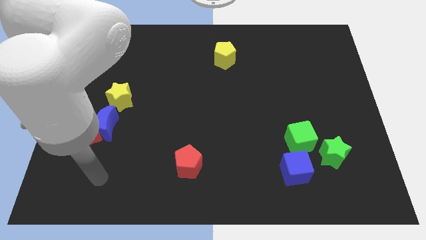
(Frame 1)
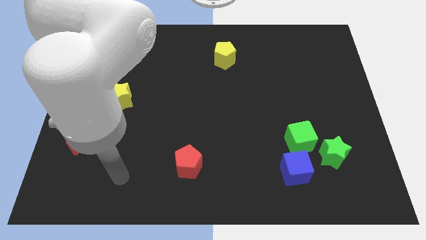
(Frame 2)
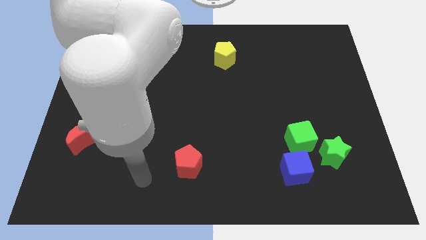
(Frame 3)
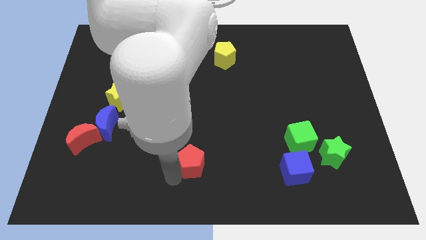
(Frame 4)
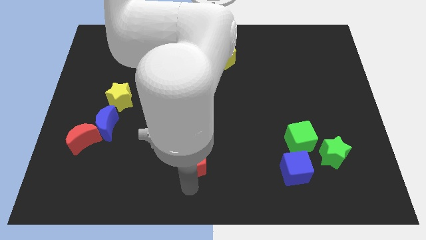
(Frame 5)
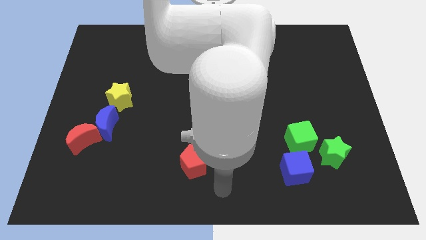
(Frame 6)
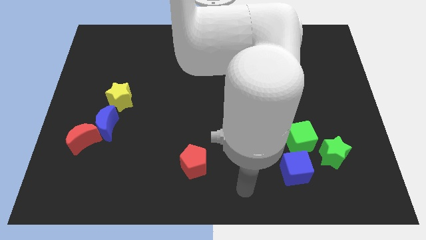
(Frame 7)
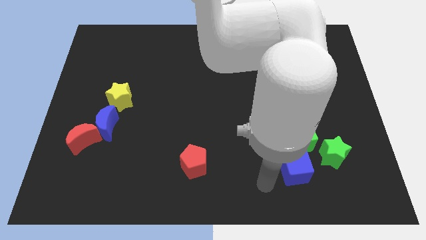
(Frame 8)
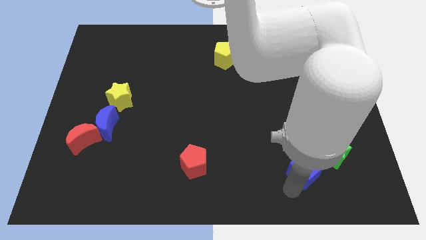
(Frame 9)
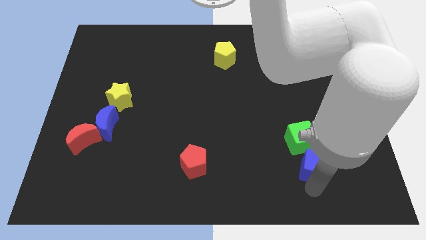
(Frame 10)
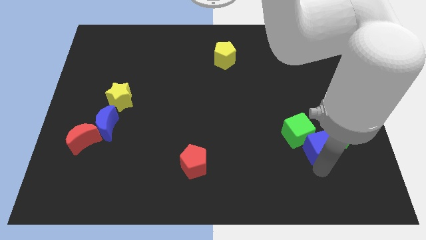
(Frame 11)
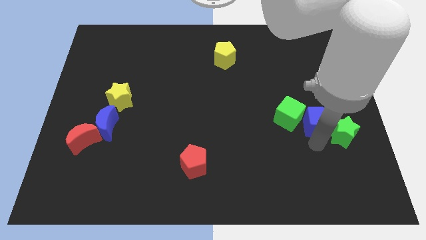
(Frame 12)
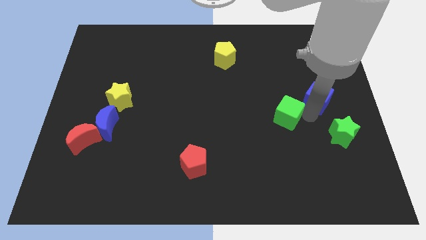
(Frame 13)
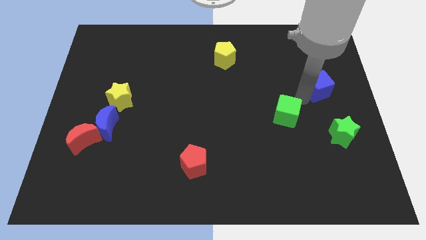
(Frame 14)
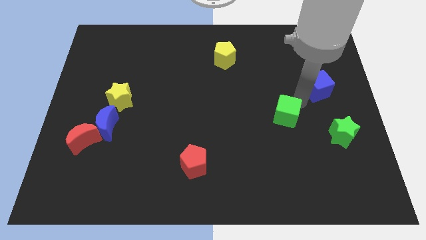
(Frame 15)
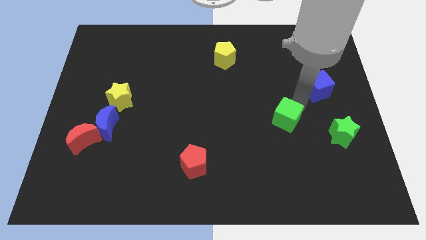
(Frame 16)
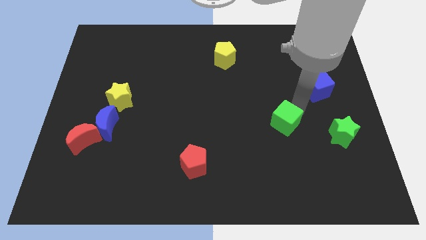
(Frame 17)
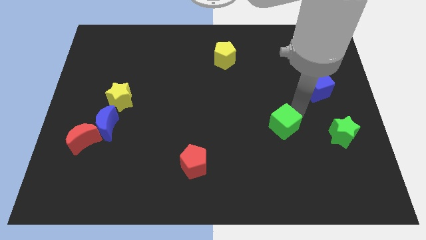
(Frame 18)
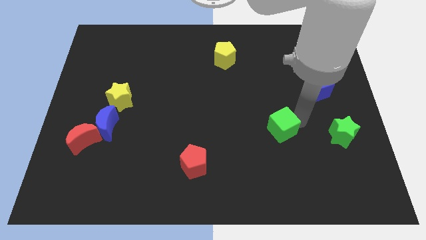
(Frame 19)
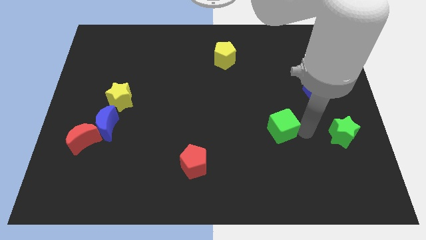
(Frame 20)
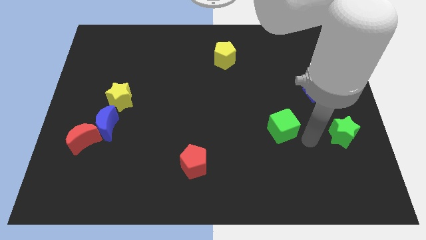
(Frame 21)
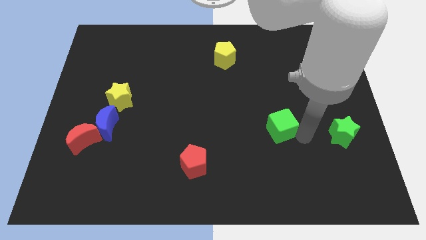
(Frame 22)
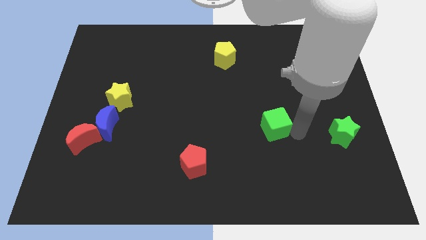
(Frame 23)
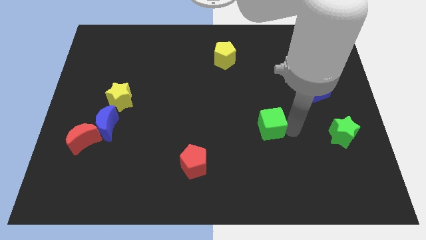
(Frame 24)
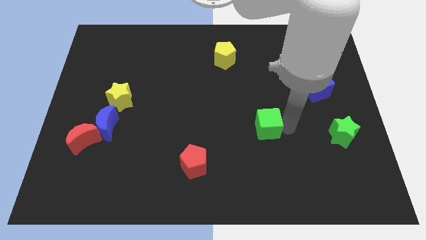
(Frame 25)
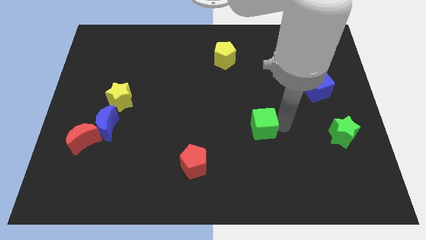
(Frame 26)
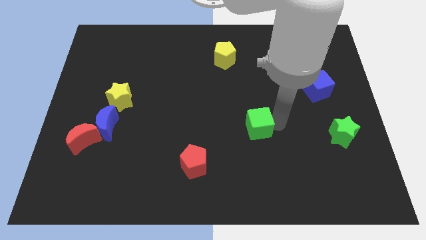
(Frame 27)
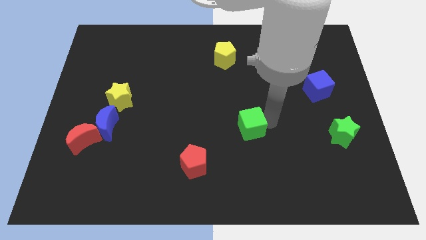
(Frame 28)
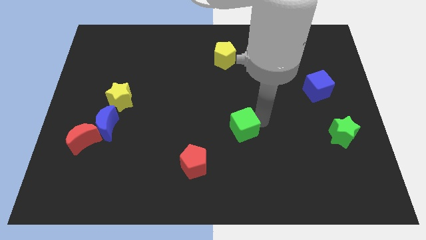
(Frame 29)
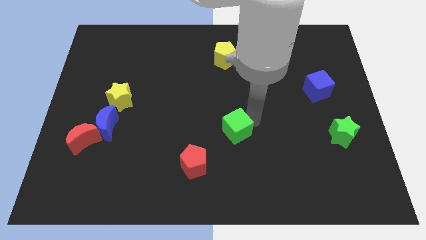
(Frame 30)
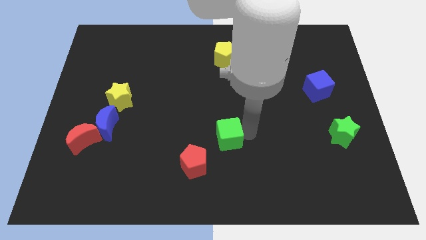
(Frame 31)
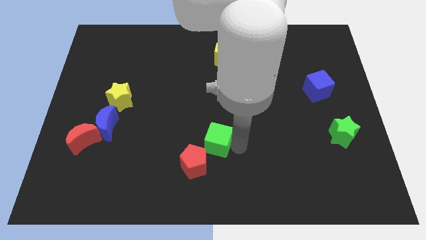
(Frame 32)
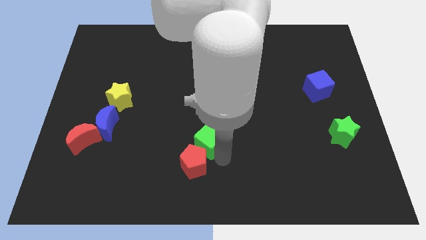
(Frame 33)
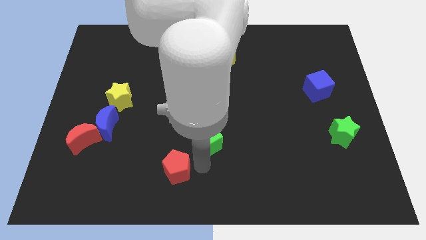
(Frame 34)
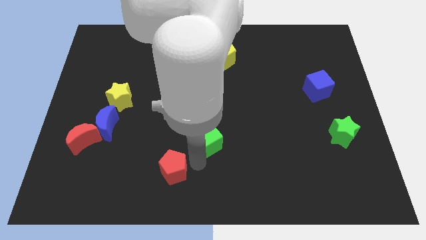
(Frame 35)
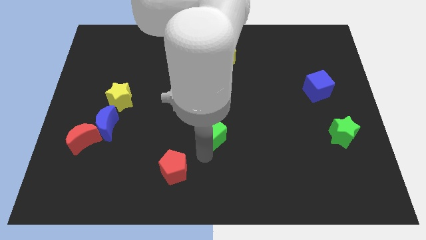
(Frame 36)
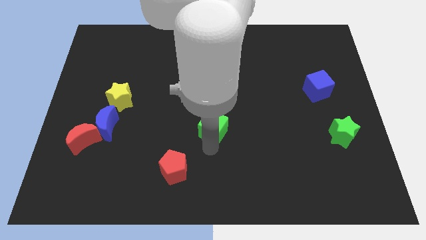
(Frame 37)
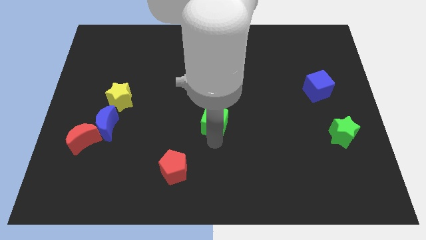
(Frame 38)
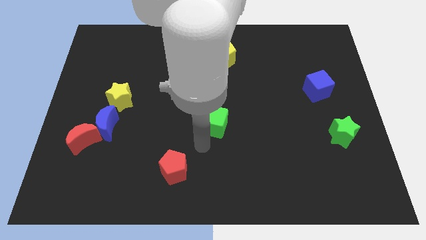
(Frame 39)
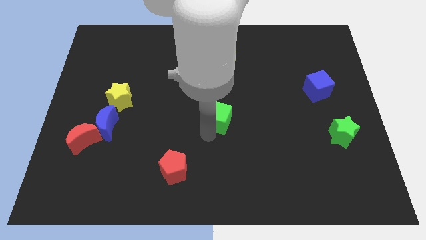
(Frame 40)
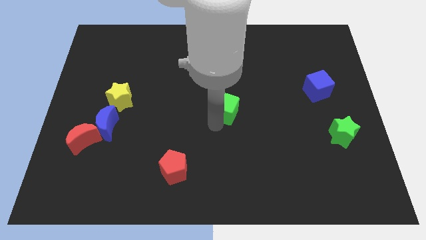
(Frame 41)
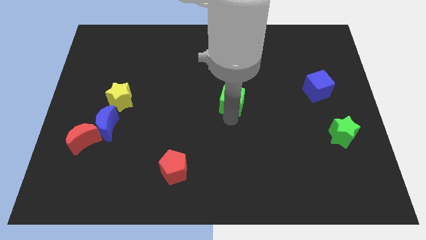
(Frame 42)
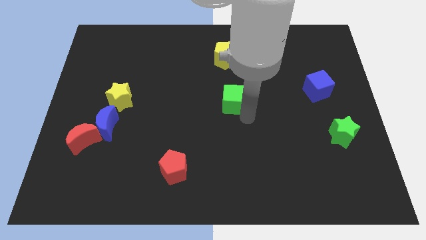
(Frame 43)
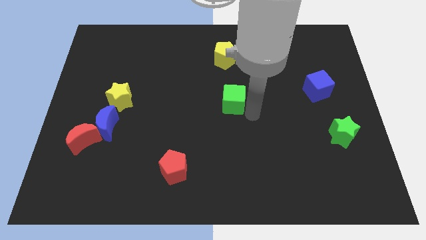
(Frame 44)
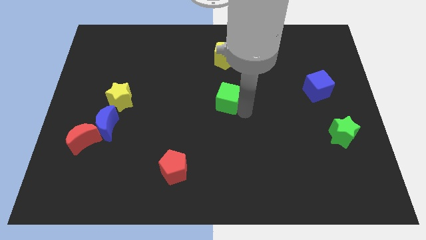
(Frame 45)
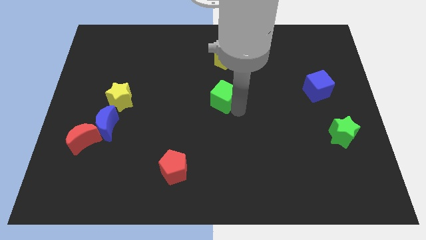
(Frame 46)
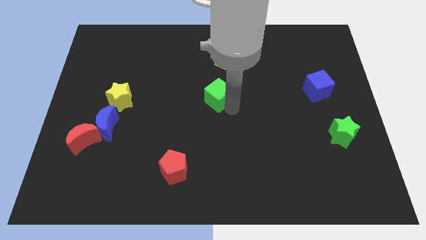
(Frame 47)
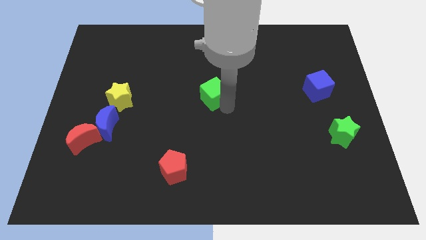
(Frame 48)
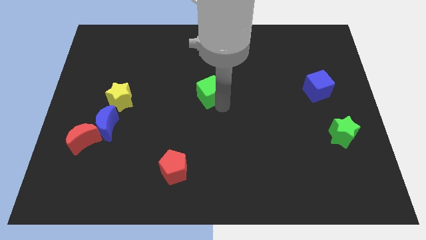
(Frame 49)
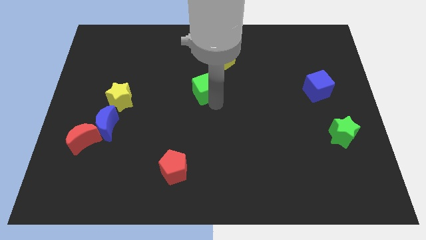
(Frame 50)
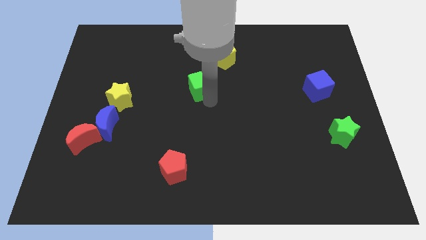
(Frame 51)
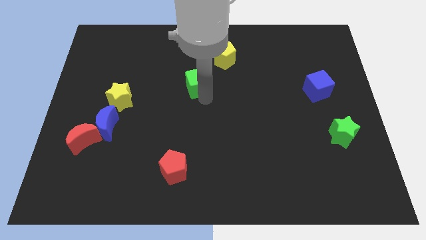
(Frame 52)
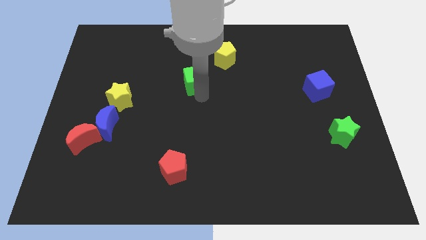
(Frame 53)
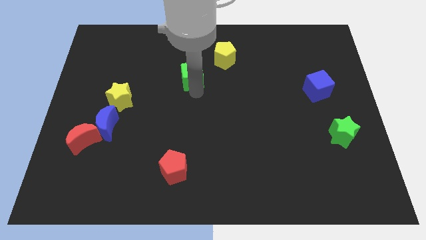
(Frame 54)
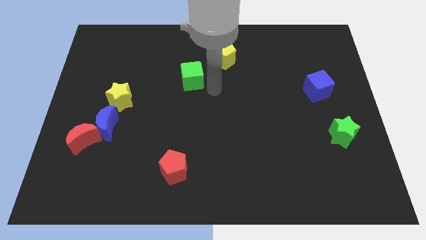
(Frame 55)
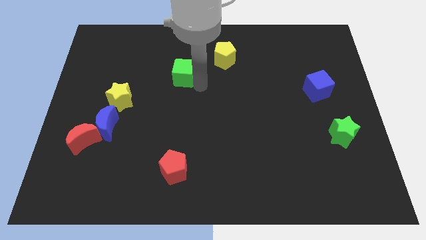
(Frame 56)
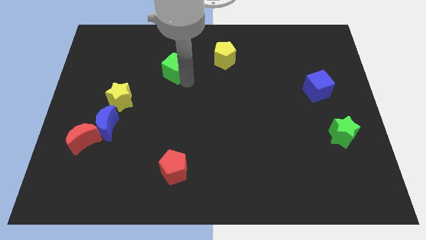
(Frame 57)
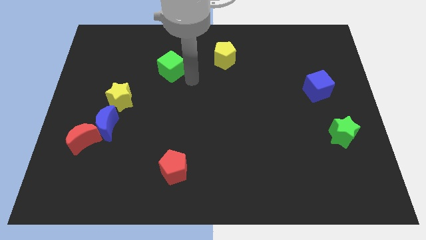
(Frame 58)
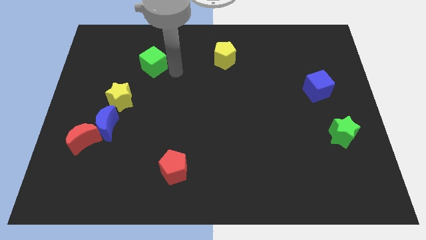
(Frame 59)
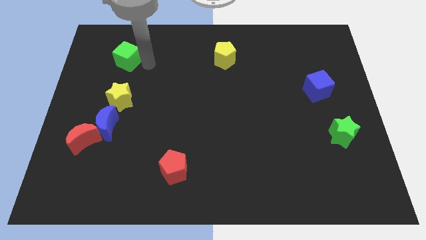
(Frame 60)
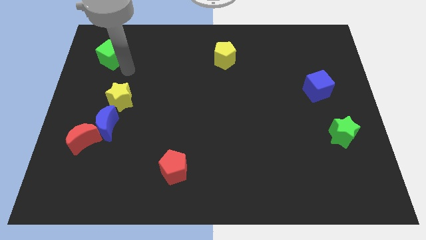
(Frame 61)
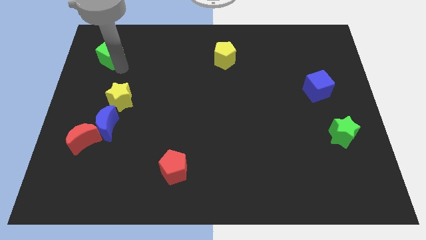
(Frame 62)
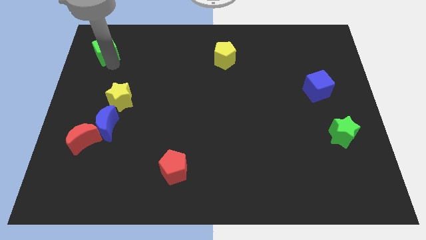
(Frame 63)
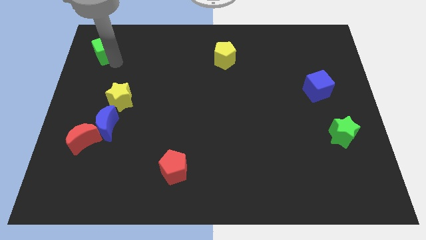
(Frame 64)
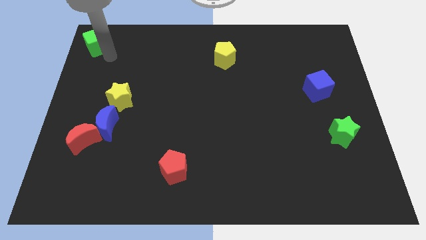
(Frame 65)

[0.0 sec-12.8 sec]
put the green cube to the top left of the board
